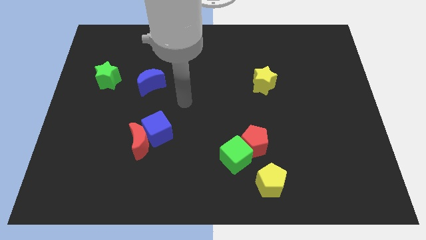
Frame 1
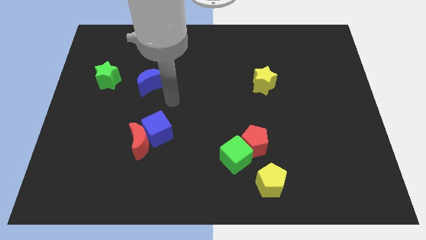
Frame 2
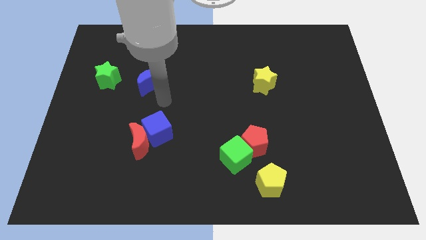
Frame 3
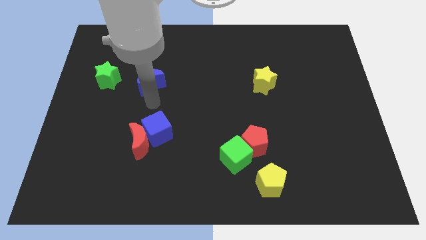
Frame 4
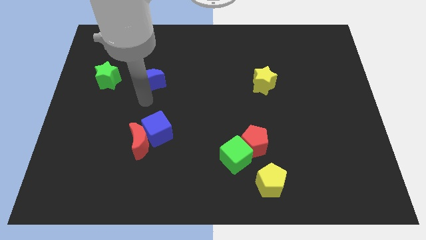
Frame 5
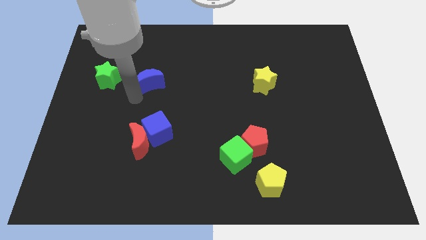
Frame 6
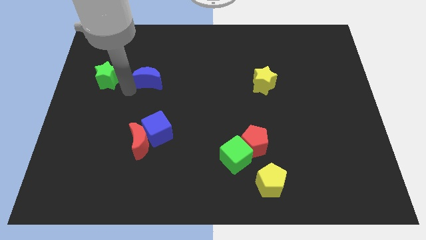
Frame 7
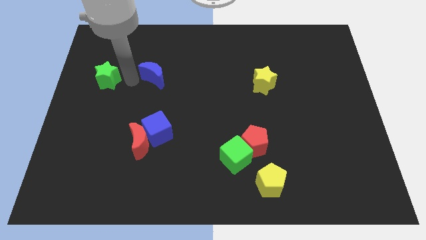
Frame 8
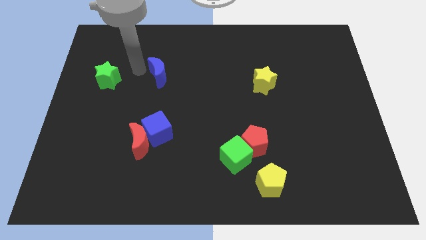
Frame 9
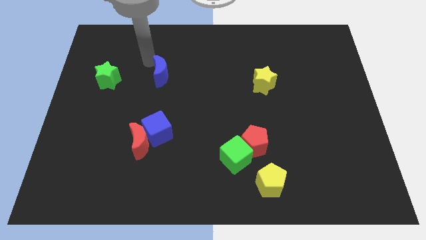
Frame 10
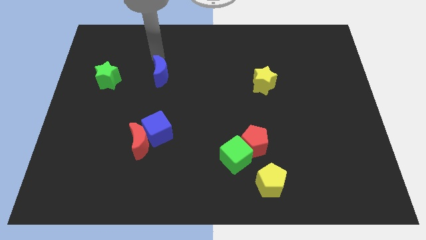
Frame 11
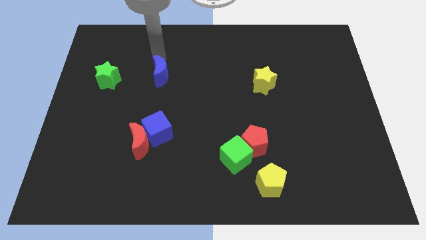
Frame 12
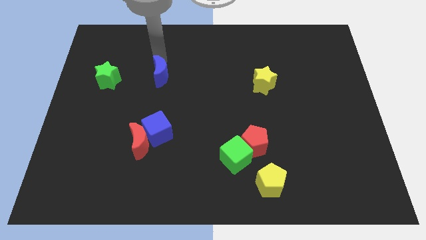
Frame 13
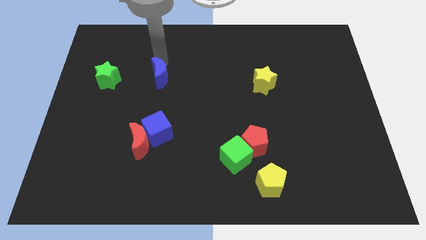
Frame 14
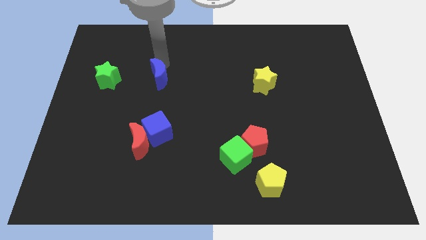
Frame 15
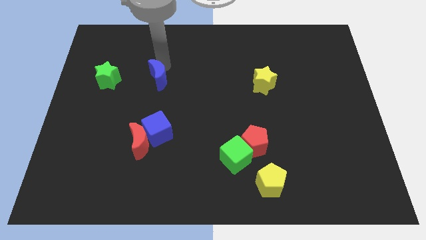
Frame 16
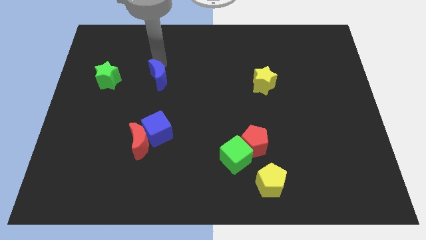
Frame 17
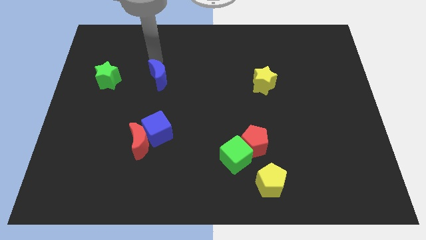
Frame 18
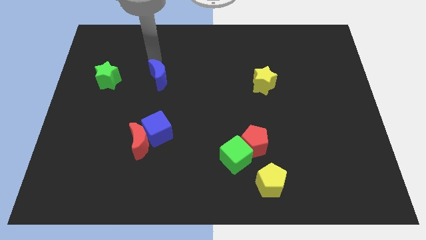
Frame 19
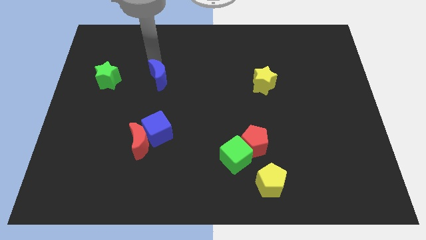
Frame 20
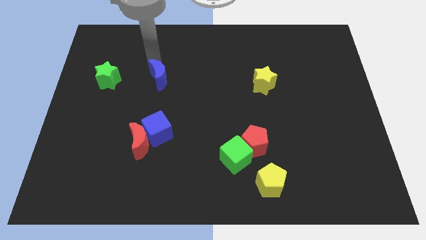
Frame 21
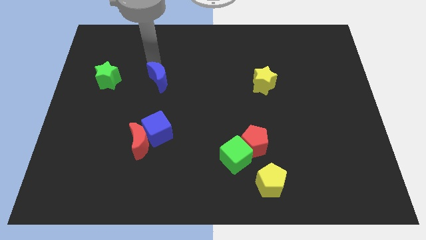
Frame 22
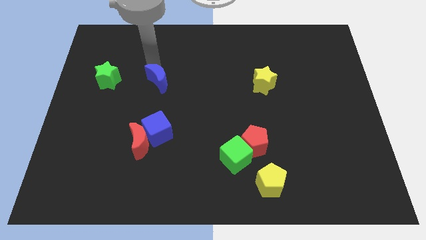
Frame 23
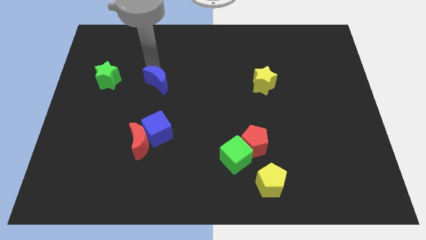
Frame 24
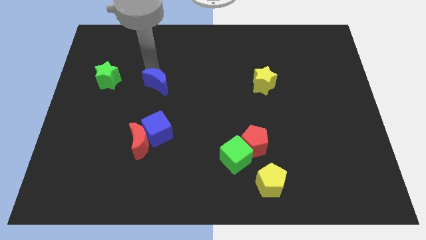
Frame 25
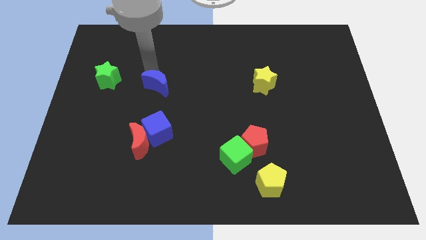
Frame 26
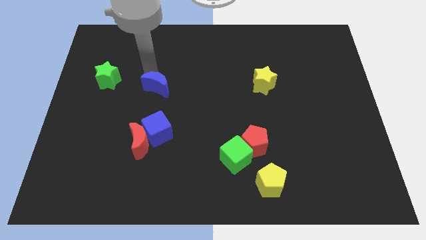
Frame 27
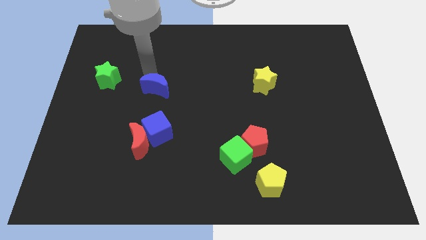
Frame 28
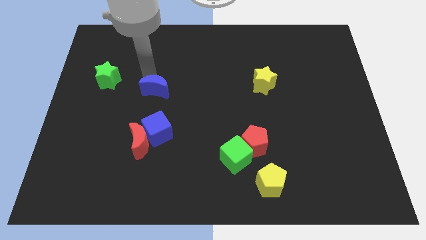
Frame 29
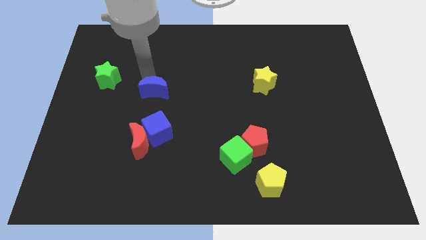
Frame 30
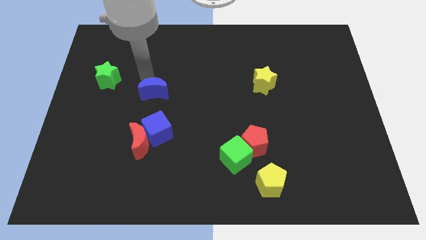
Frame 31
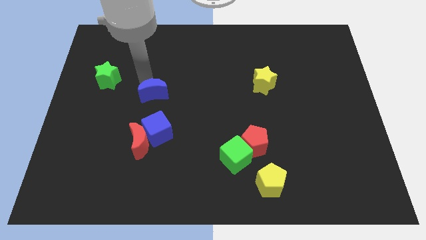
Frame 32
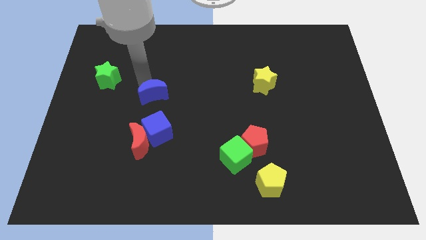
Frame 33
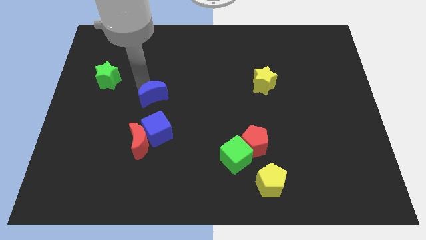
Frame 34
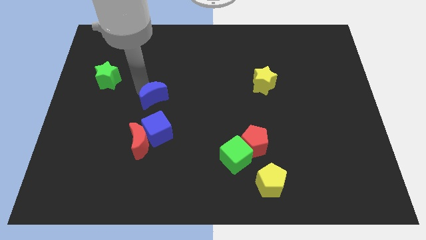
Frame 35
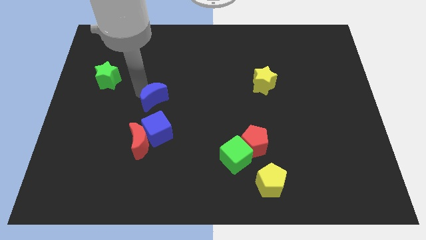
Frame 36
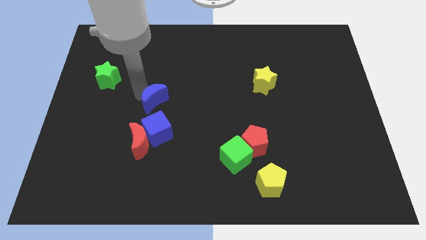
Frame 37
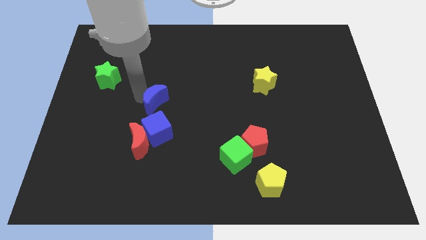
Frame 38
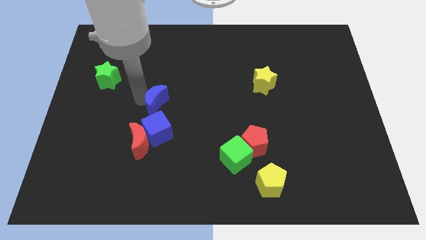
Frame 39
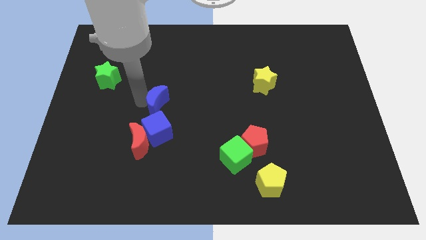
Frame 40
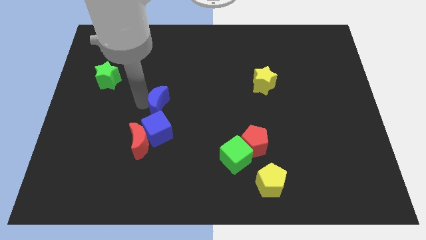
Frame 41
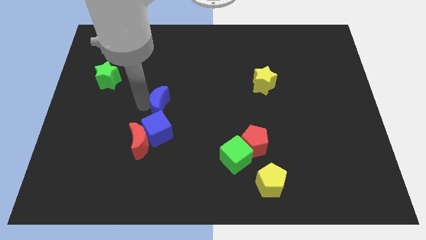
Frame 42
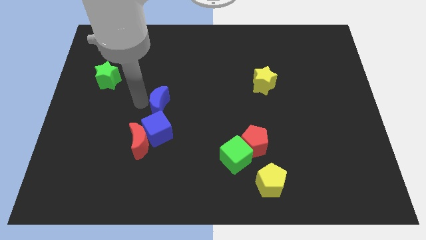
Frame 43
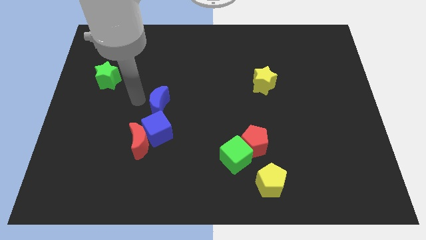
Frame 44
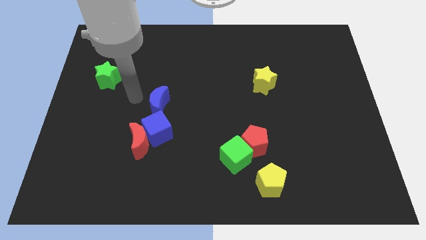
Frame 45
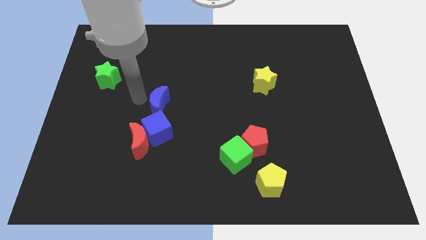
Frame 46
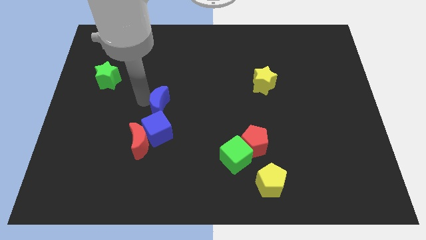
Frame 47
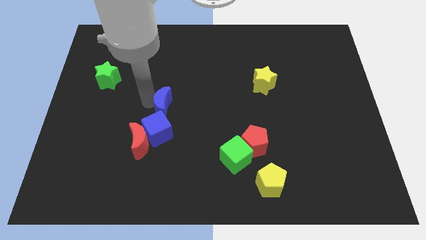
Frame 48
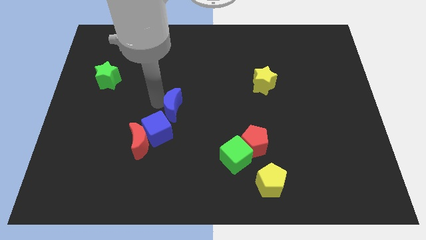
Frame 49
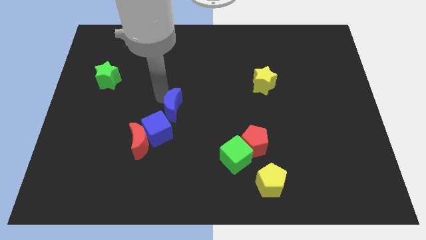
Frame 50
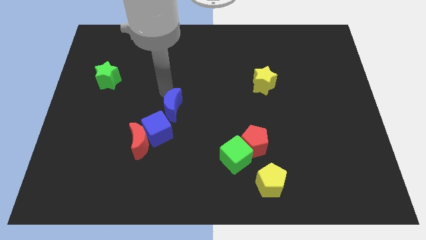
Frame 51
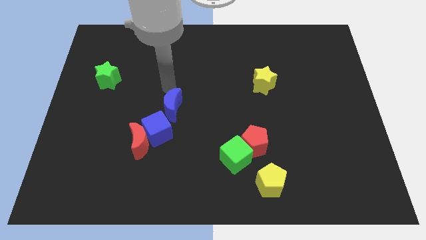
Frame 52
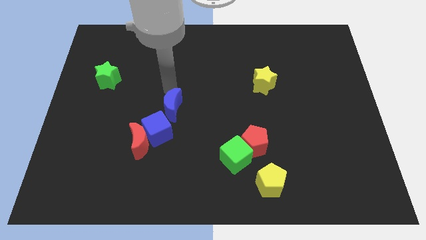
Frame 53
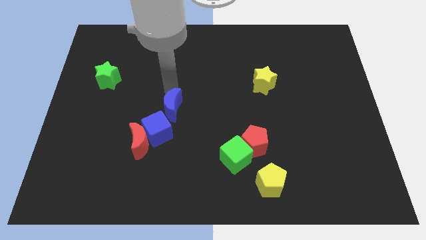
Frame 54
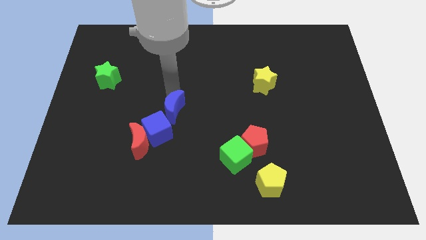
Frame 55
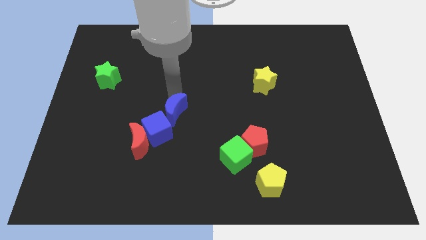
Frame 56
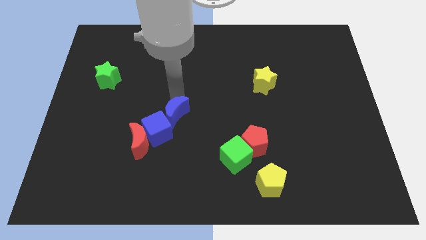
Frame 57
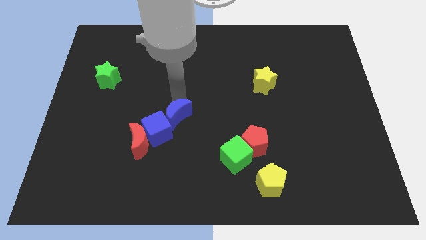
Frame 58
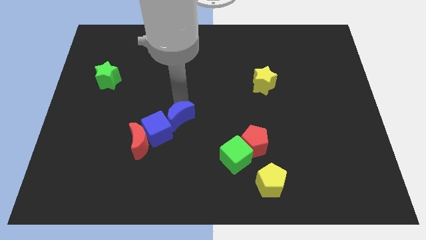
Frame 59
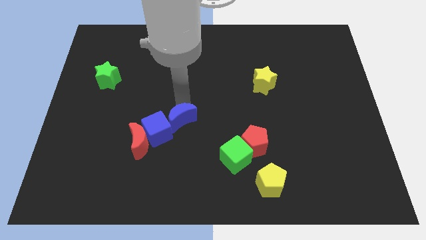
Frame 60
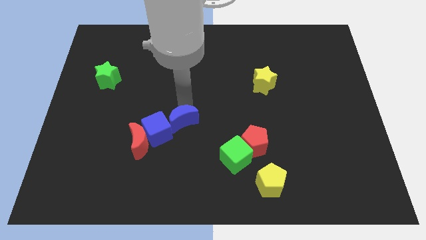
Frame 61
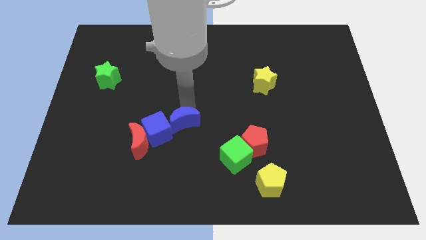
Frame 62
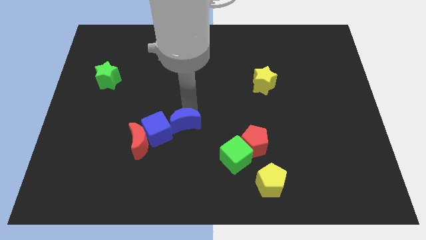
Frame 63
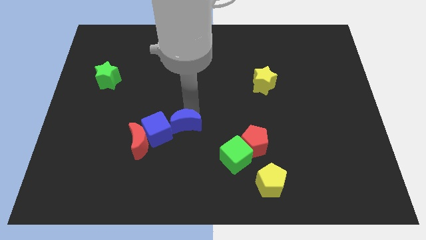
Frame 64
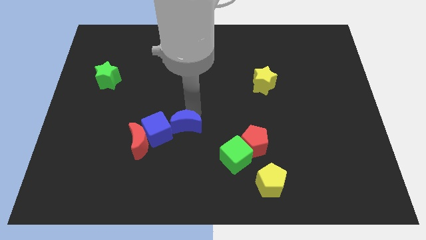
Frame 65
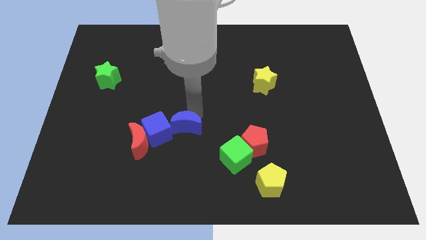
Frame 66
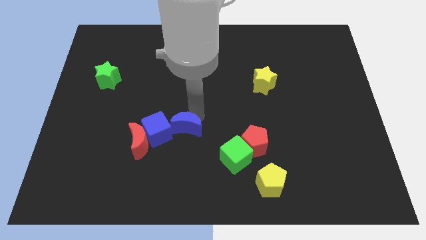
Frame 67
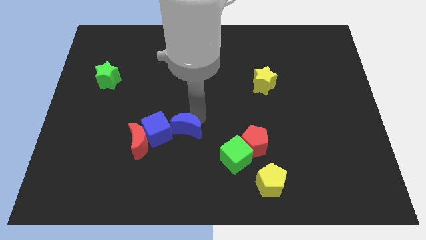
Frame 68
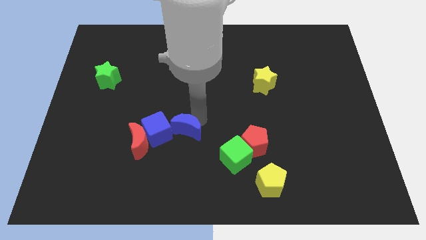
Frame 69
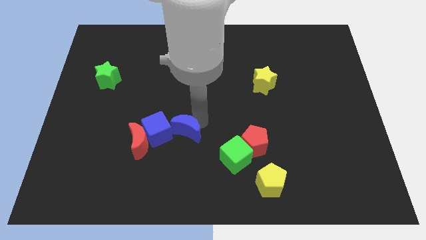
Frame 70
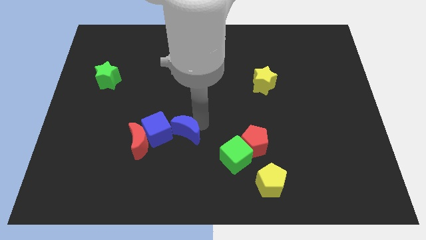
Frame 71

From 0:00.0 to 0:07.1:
put the blue moon to the bottom right of the blue cube
